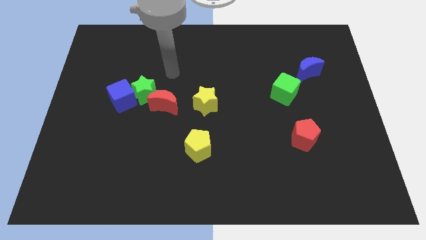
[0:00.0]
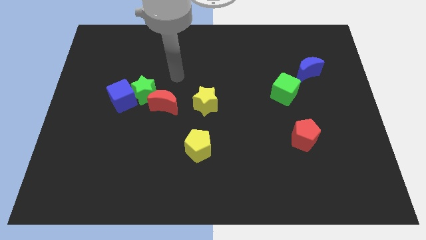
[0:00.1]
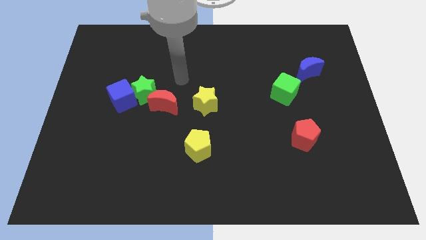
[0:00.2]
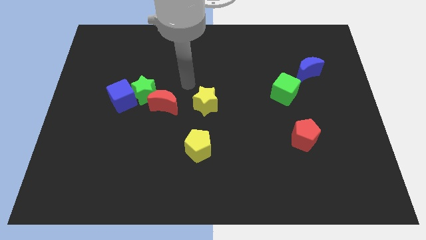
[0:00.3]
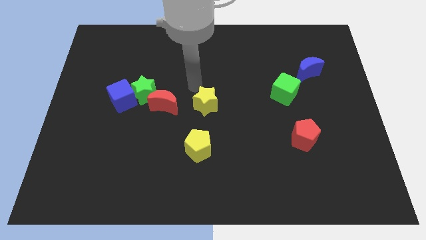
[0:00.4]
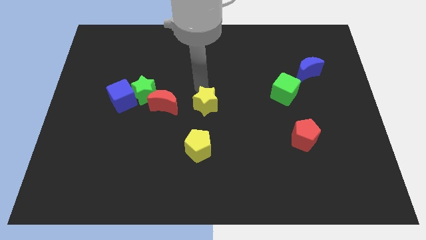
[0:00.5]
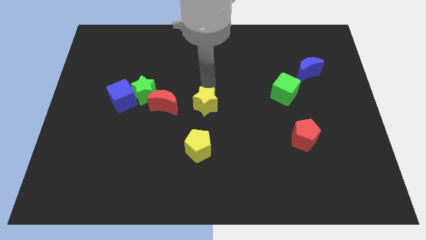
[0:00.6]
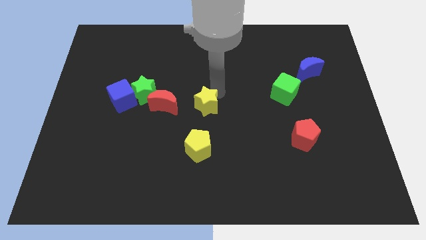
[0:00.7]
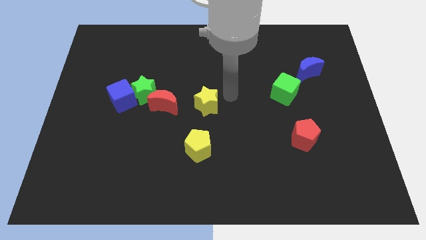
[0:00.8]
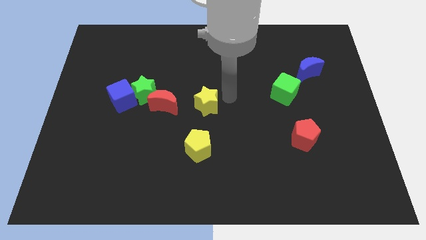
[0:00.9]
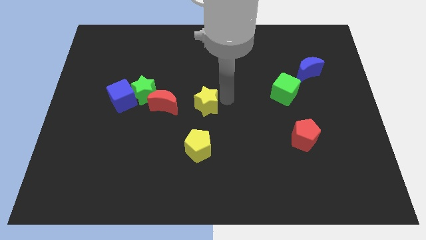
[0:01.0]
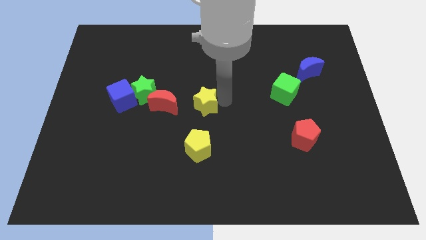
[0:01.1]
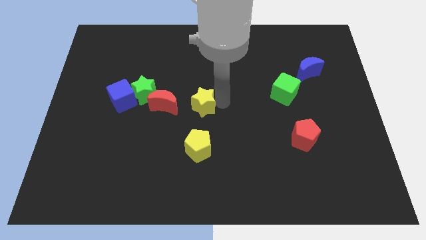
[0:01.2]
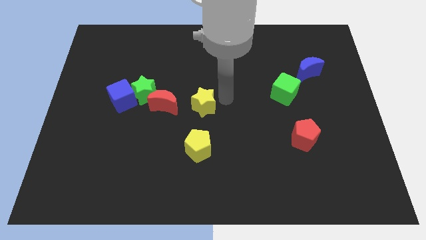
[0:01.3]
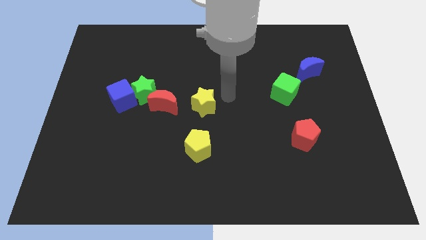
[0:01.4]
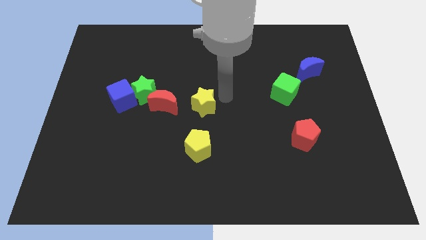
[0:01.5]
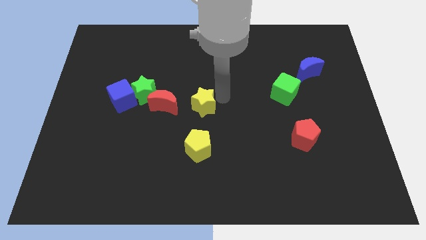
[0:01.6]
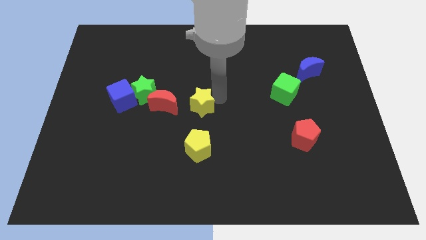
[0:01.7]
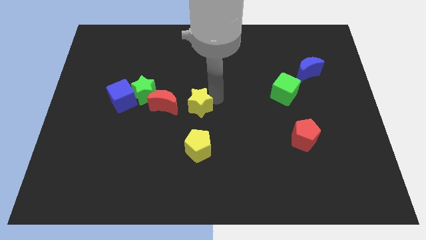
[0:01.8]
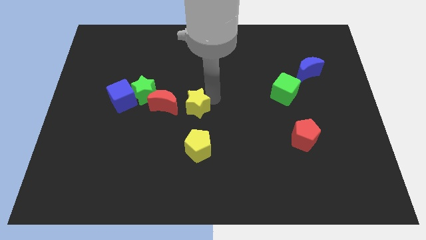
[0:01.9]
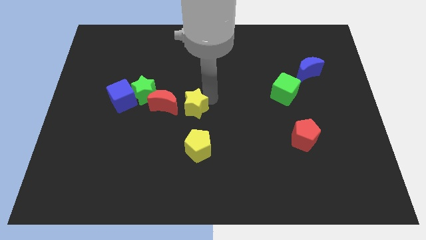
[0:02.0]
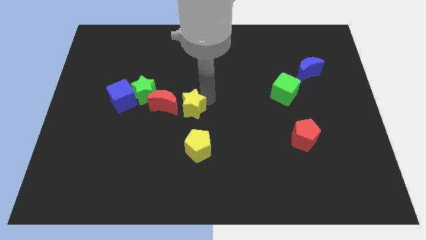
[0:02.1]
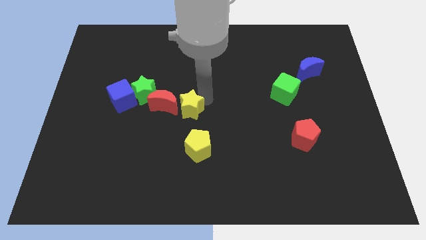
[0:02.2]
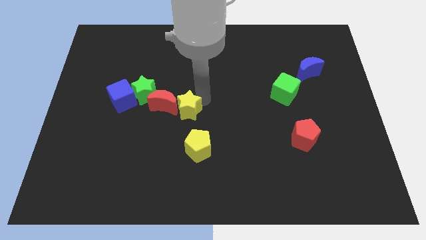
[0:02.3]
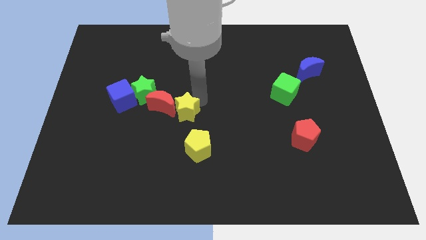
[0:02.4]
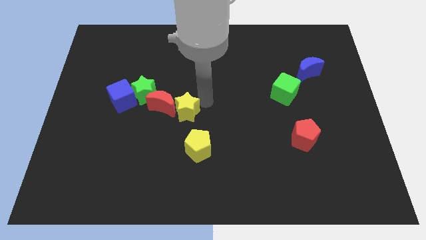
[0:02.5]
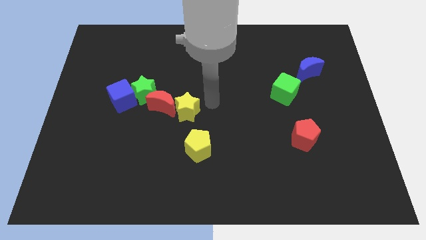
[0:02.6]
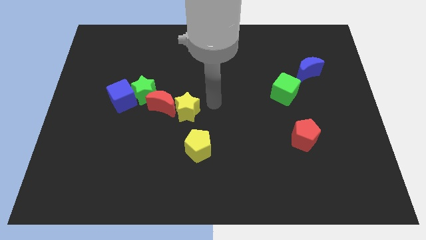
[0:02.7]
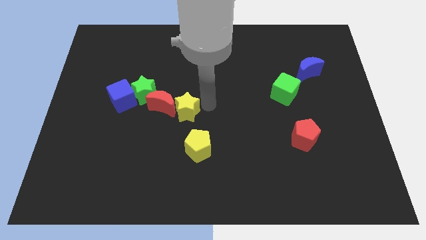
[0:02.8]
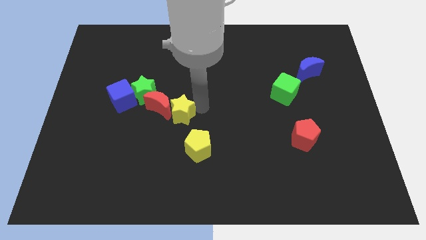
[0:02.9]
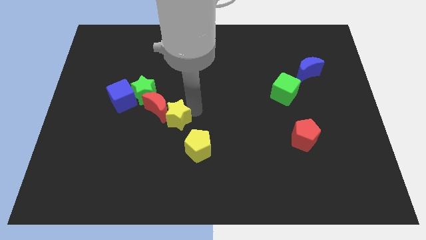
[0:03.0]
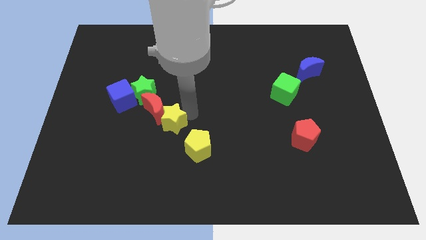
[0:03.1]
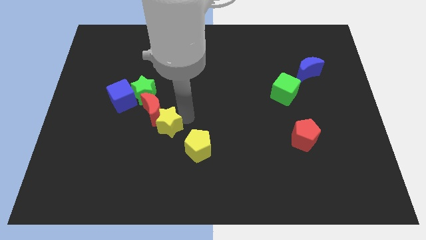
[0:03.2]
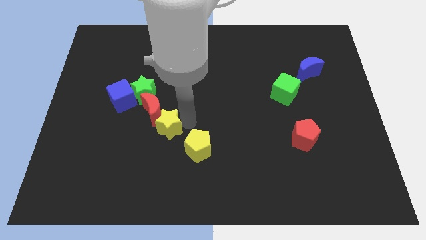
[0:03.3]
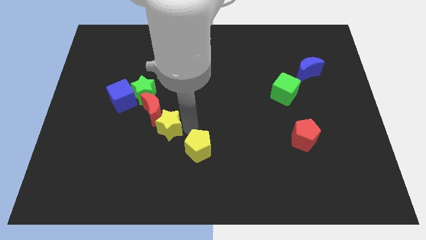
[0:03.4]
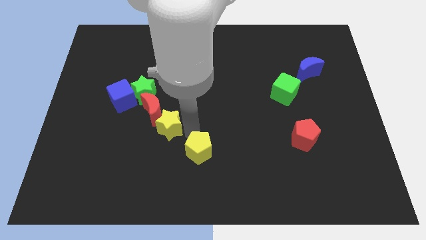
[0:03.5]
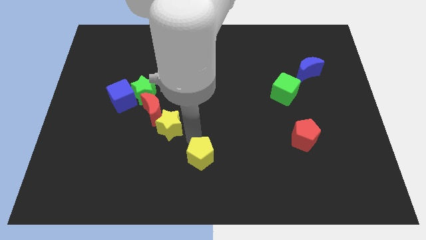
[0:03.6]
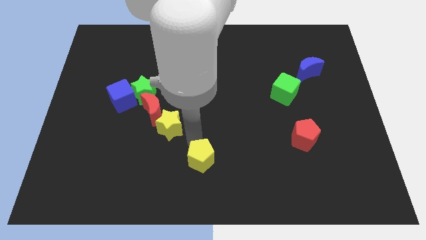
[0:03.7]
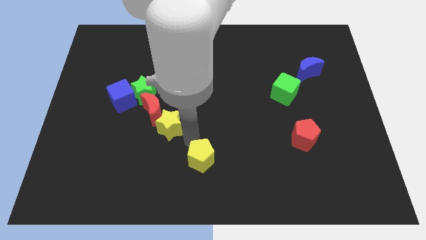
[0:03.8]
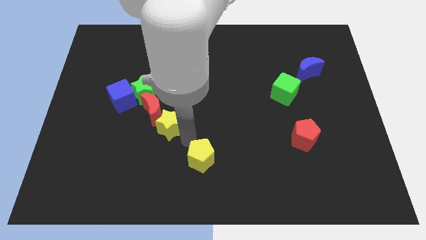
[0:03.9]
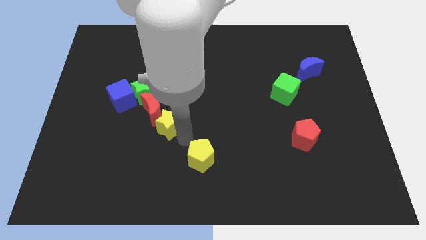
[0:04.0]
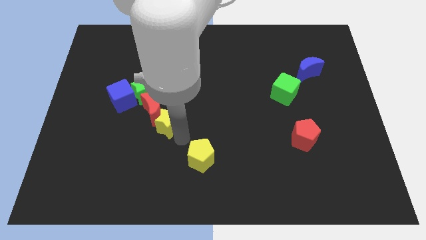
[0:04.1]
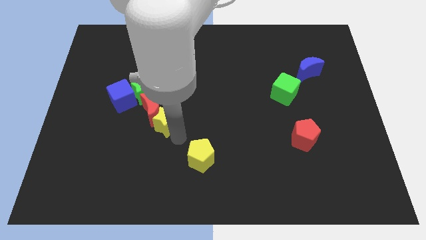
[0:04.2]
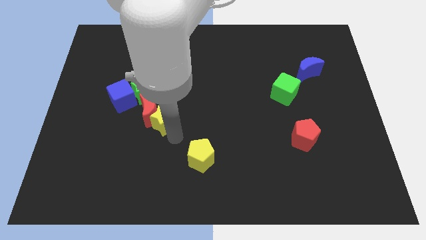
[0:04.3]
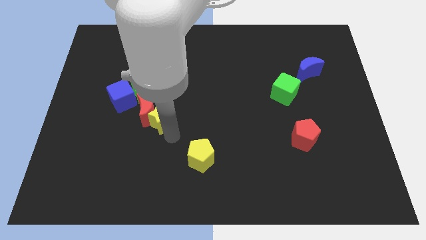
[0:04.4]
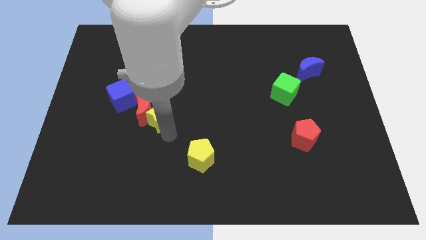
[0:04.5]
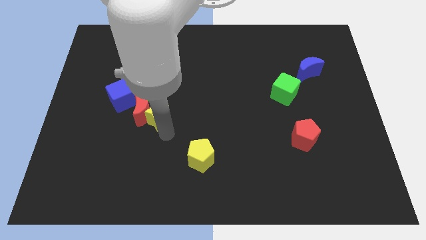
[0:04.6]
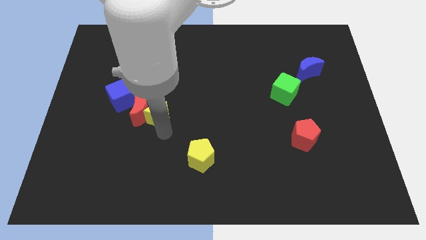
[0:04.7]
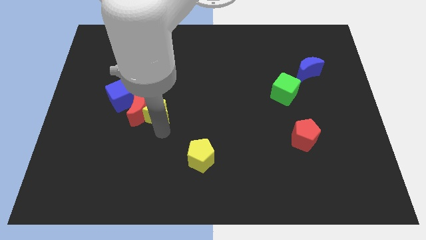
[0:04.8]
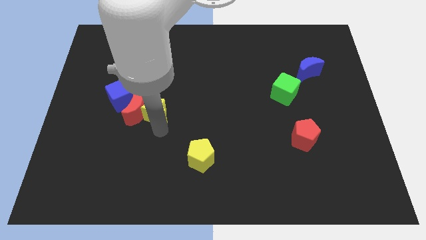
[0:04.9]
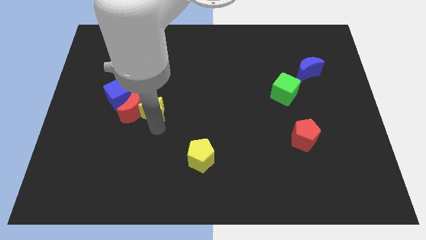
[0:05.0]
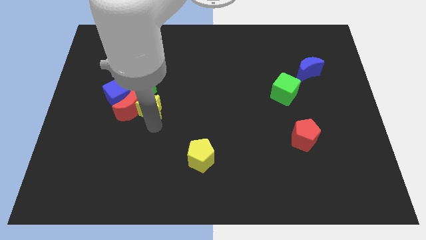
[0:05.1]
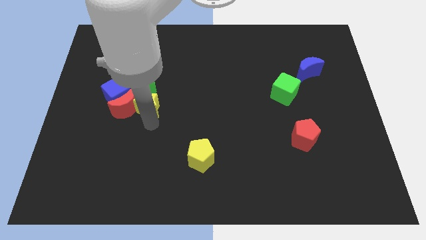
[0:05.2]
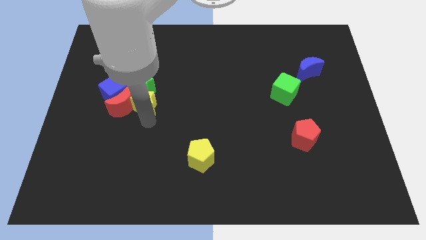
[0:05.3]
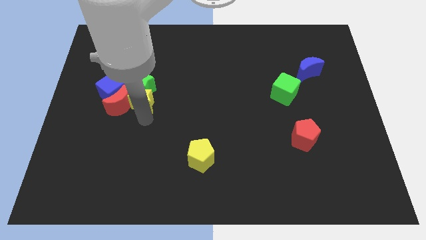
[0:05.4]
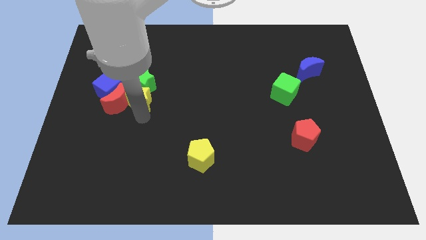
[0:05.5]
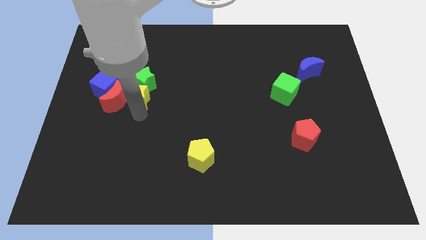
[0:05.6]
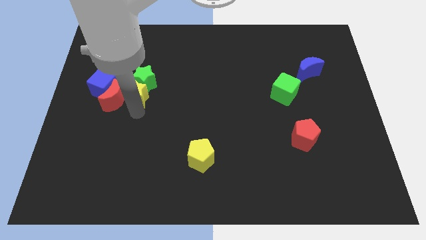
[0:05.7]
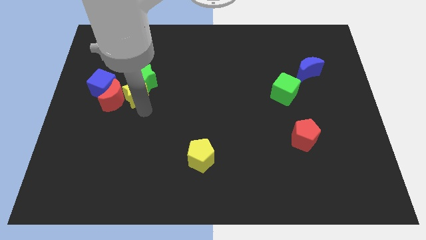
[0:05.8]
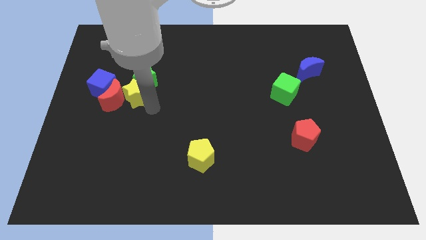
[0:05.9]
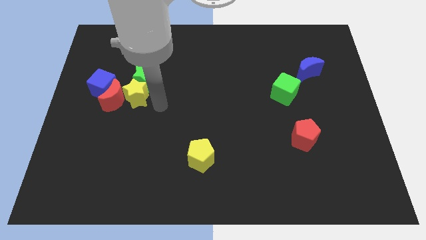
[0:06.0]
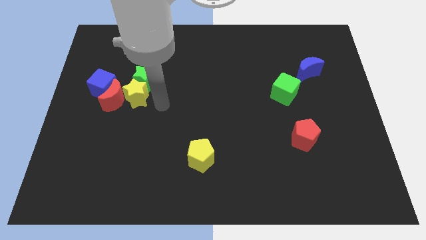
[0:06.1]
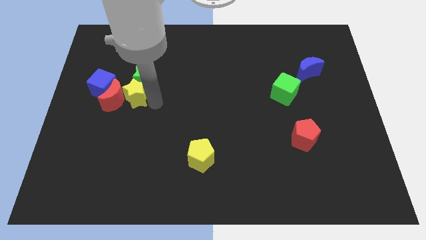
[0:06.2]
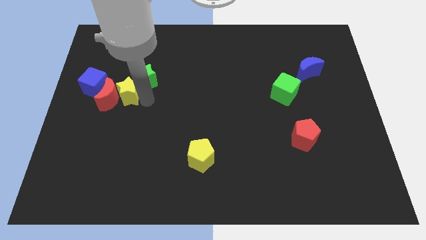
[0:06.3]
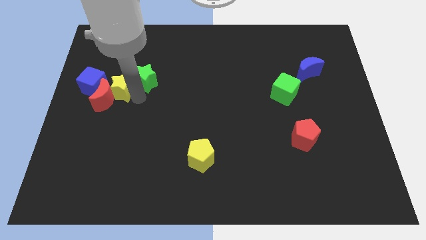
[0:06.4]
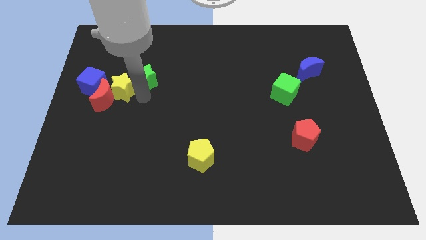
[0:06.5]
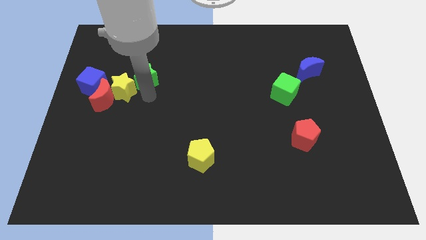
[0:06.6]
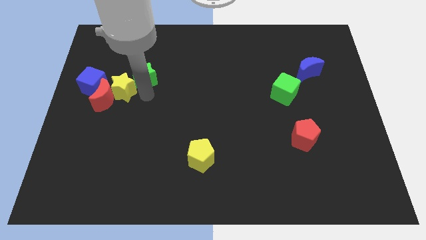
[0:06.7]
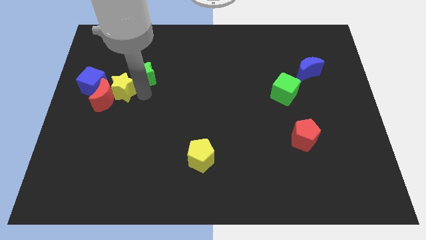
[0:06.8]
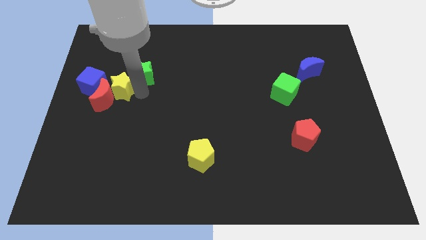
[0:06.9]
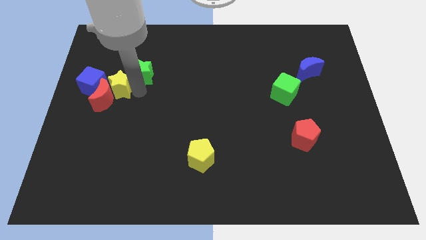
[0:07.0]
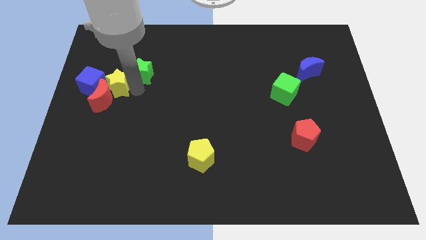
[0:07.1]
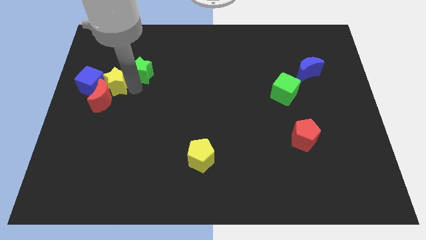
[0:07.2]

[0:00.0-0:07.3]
slide the yellow star next to the blue cube

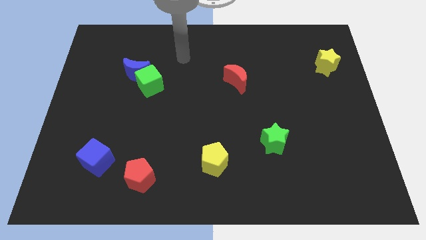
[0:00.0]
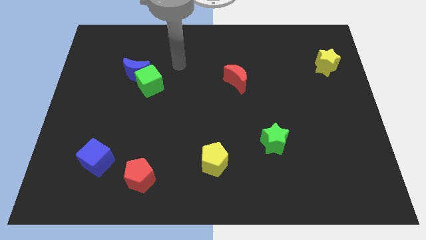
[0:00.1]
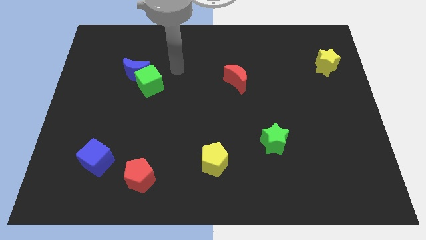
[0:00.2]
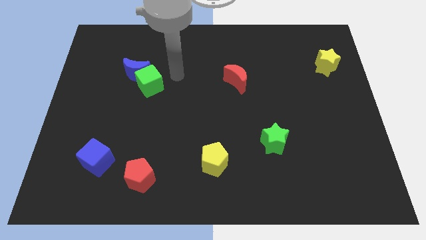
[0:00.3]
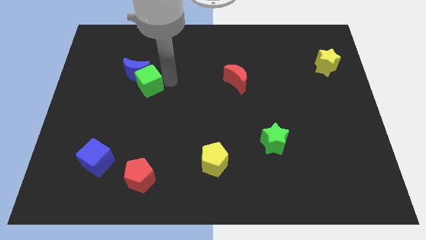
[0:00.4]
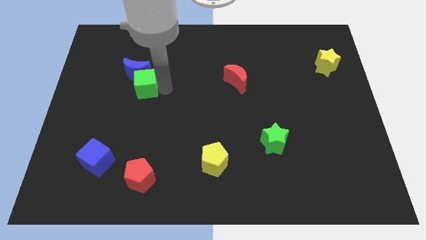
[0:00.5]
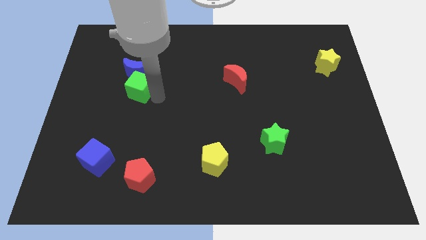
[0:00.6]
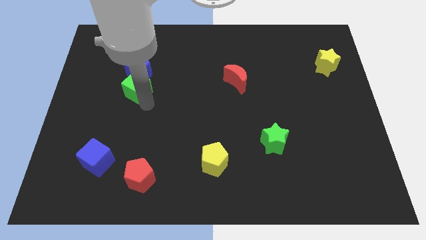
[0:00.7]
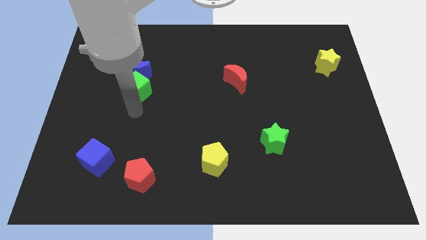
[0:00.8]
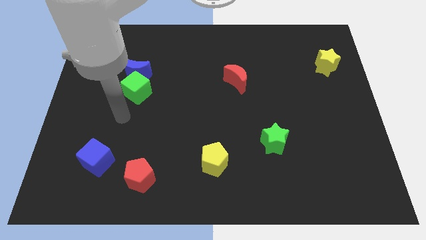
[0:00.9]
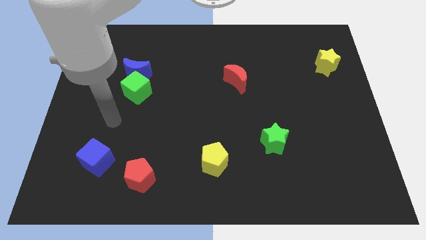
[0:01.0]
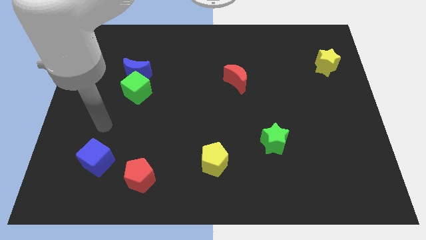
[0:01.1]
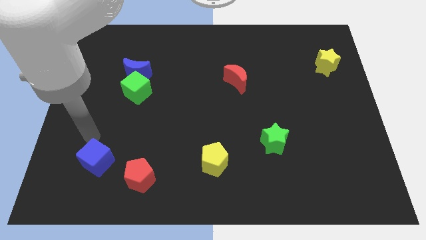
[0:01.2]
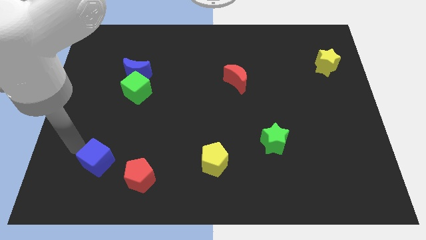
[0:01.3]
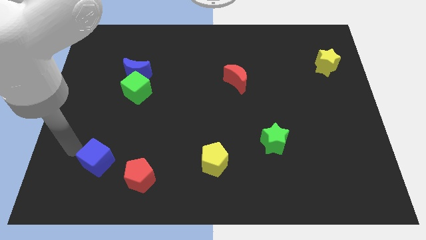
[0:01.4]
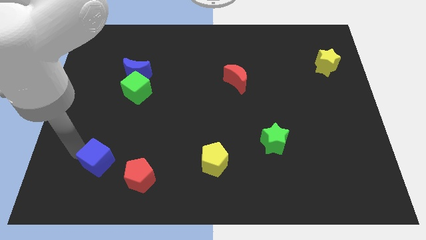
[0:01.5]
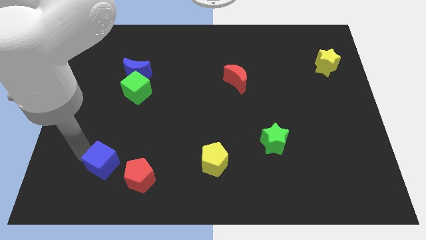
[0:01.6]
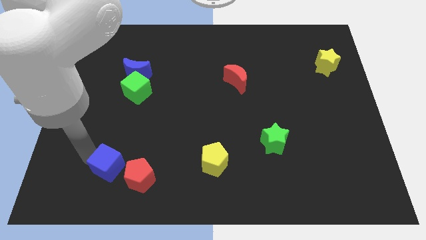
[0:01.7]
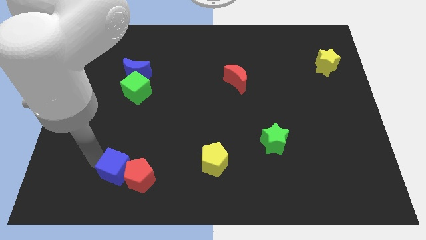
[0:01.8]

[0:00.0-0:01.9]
push the blue cube to the red pentagon
